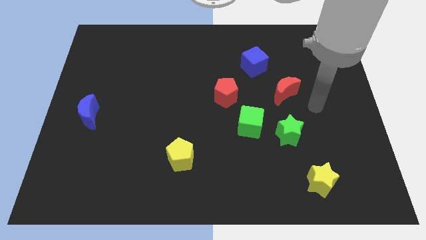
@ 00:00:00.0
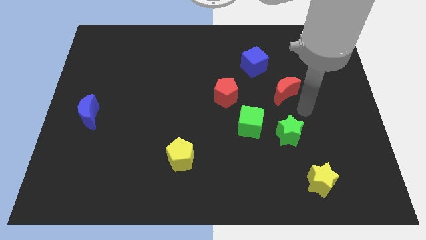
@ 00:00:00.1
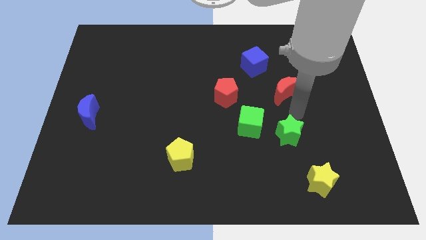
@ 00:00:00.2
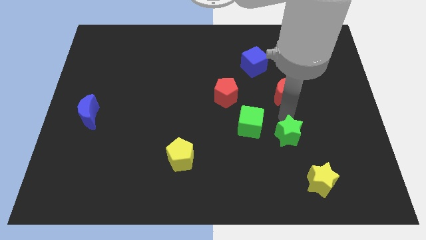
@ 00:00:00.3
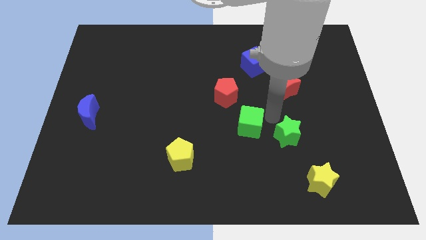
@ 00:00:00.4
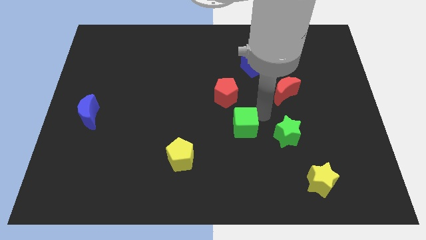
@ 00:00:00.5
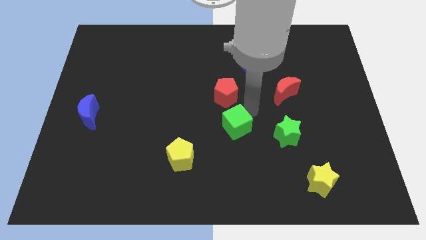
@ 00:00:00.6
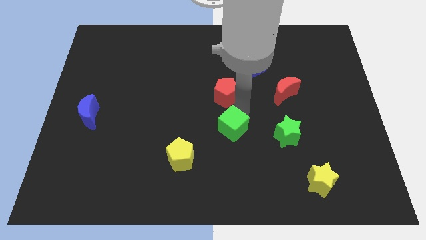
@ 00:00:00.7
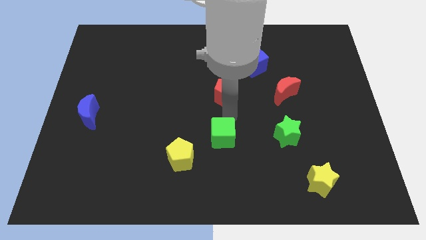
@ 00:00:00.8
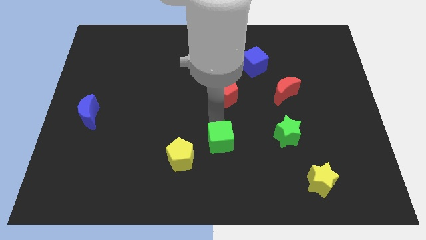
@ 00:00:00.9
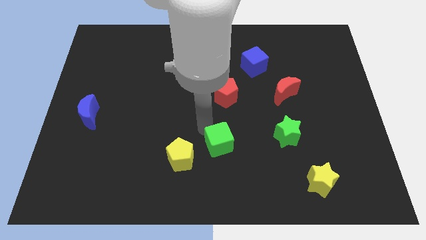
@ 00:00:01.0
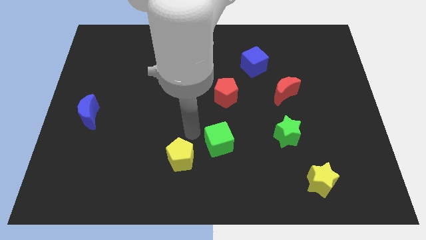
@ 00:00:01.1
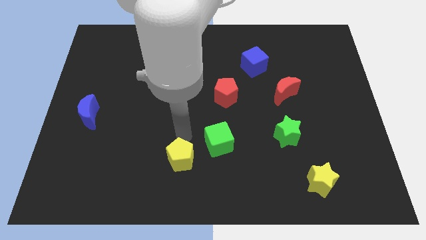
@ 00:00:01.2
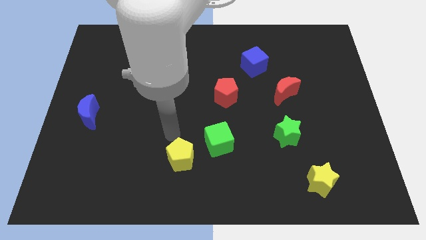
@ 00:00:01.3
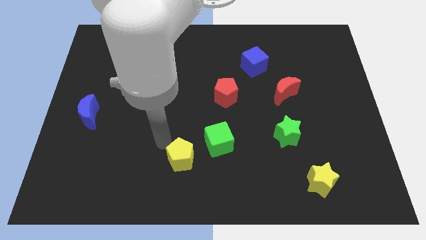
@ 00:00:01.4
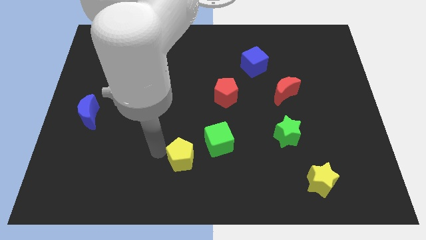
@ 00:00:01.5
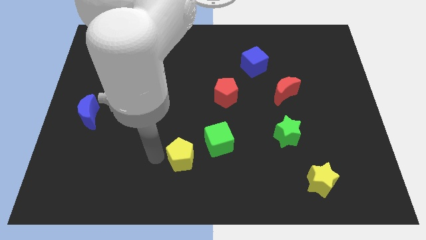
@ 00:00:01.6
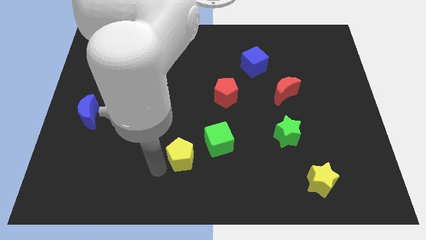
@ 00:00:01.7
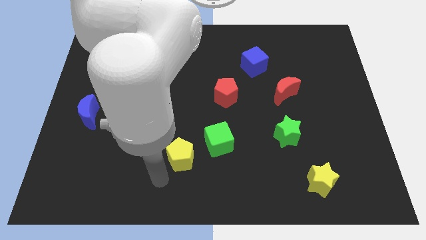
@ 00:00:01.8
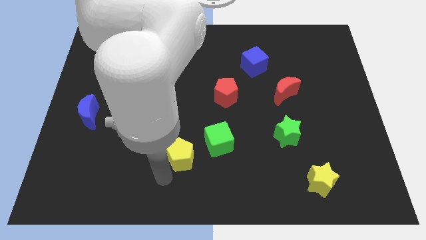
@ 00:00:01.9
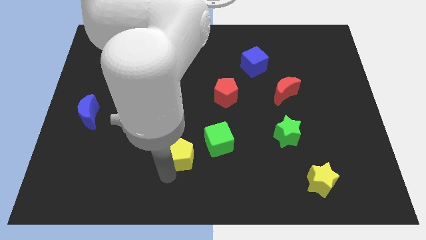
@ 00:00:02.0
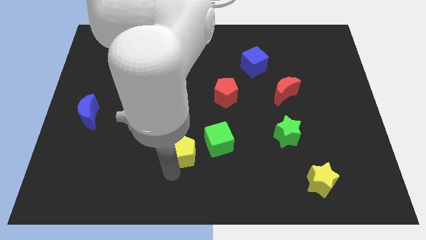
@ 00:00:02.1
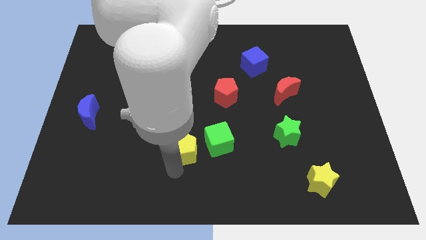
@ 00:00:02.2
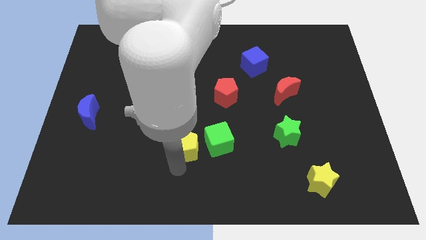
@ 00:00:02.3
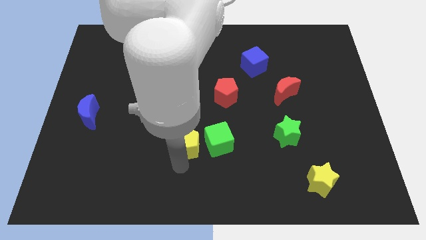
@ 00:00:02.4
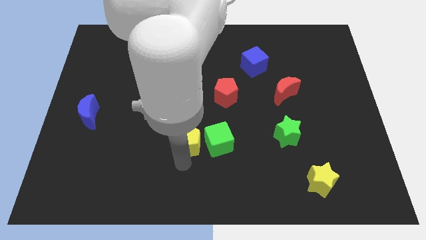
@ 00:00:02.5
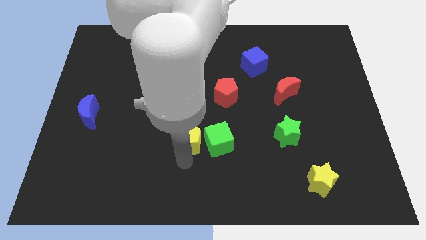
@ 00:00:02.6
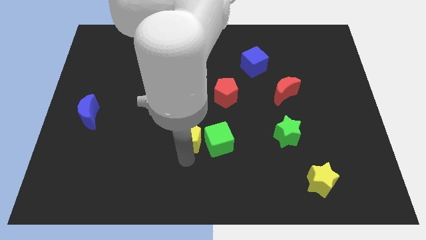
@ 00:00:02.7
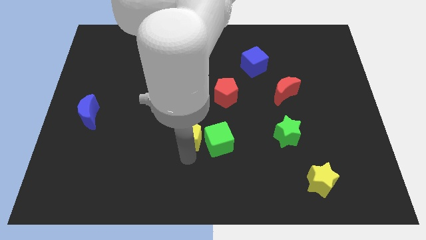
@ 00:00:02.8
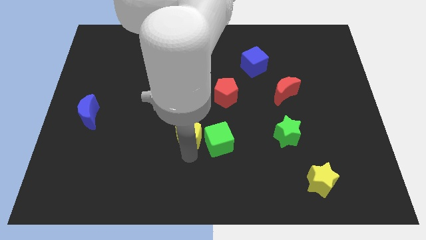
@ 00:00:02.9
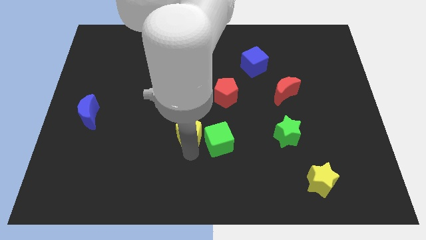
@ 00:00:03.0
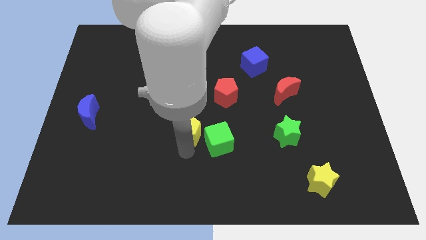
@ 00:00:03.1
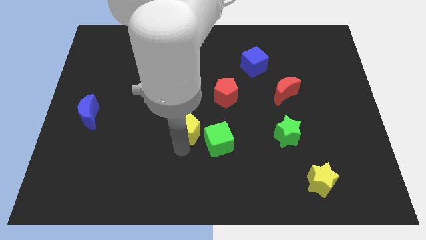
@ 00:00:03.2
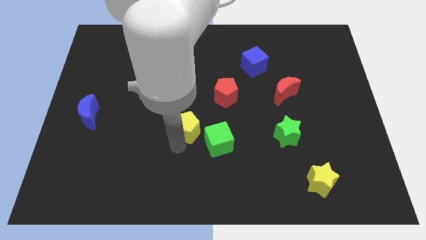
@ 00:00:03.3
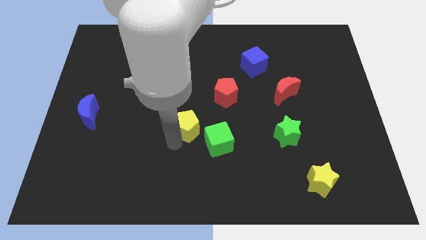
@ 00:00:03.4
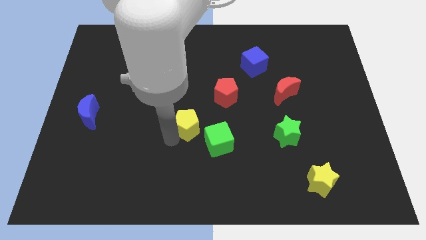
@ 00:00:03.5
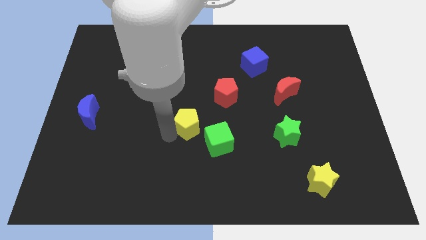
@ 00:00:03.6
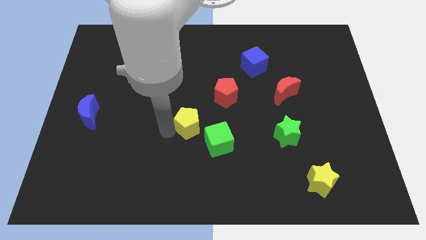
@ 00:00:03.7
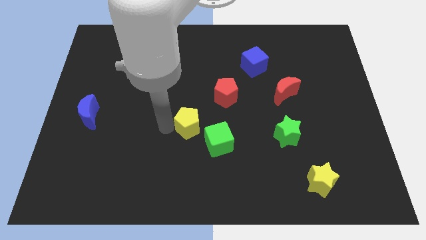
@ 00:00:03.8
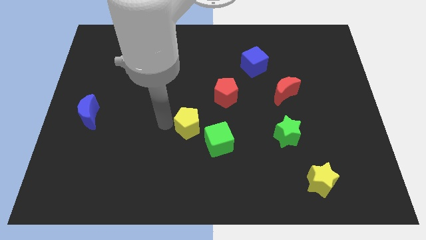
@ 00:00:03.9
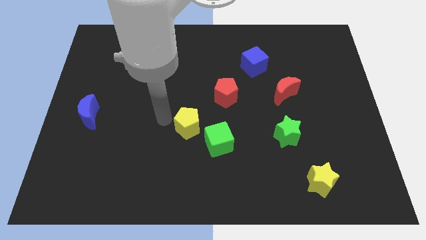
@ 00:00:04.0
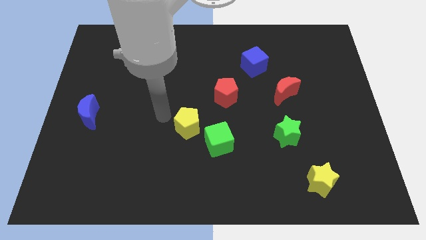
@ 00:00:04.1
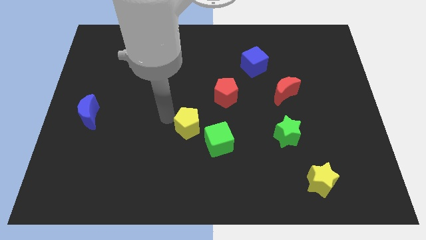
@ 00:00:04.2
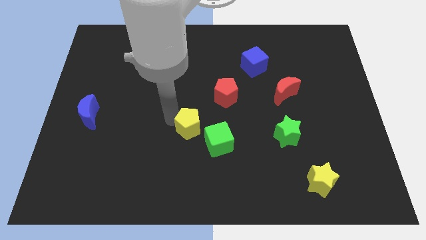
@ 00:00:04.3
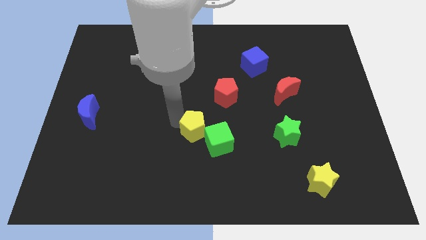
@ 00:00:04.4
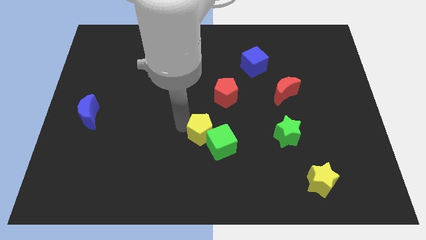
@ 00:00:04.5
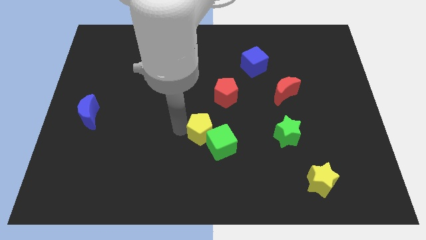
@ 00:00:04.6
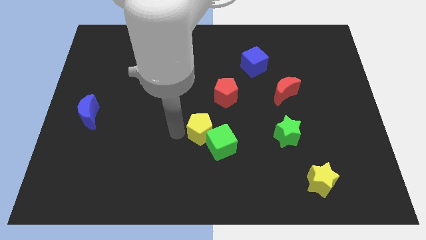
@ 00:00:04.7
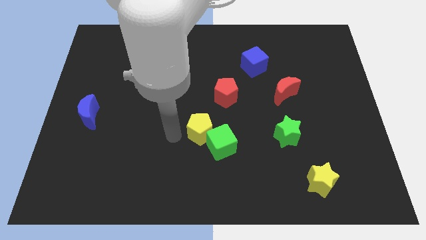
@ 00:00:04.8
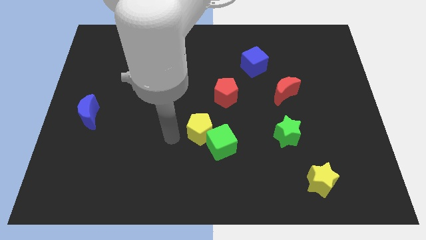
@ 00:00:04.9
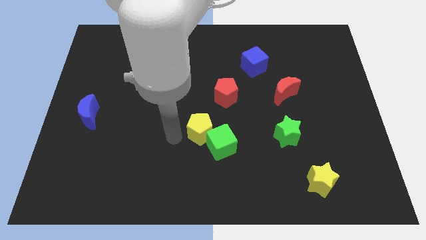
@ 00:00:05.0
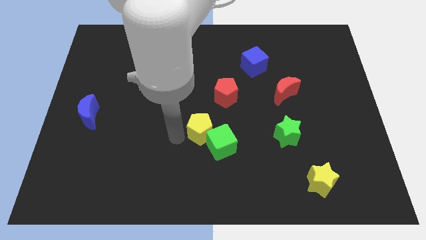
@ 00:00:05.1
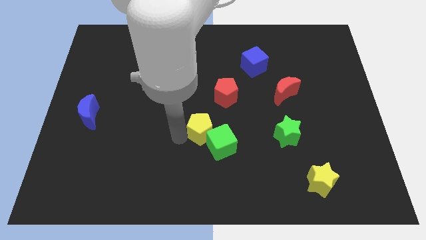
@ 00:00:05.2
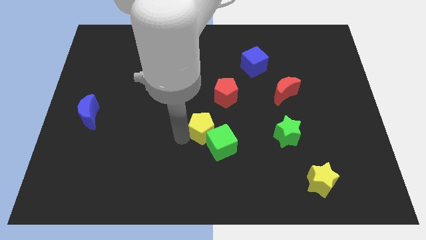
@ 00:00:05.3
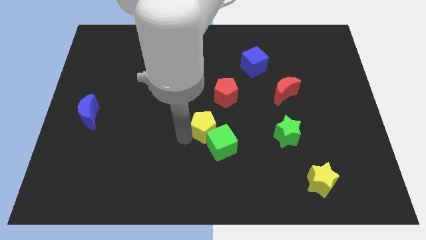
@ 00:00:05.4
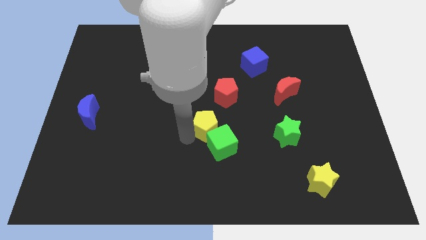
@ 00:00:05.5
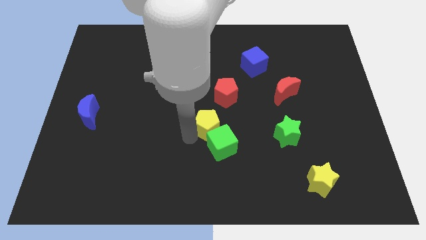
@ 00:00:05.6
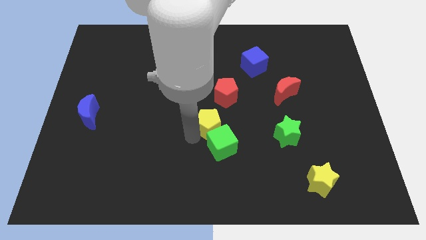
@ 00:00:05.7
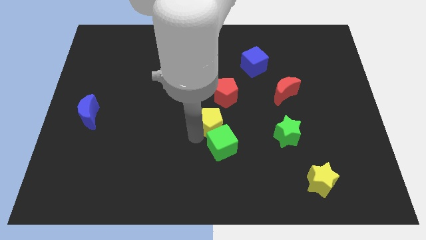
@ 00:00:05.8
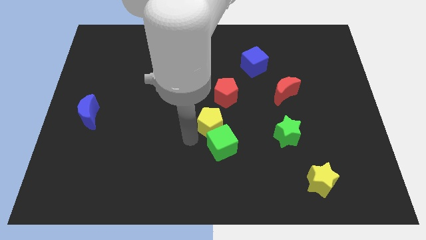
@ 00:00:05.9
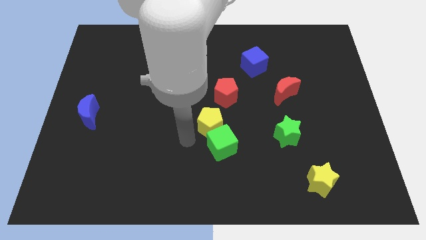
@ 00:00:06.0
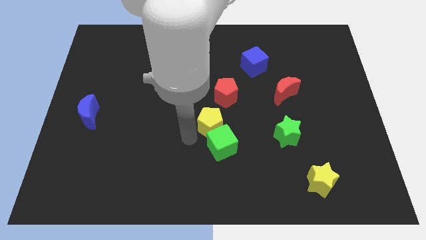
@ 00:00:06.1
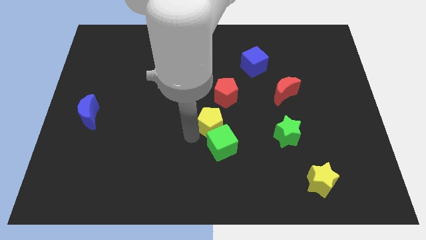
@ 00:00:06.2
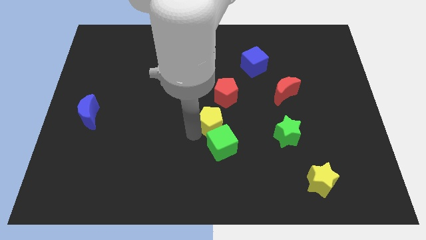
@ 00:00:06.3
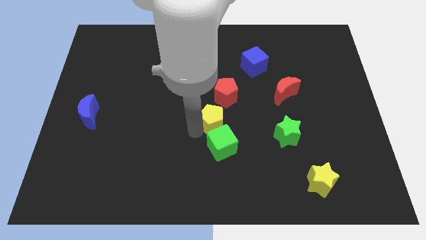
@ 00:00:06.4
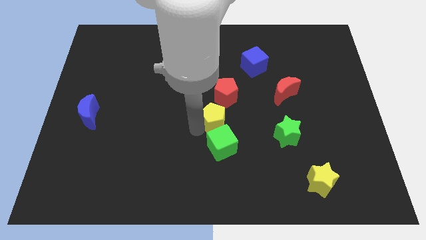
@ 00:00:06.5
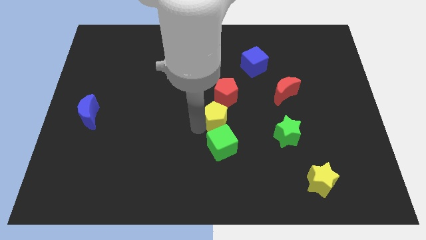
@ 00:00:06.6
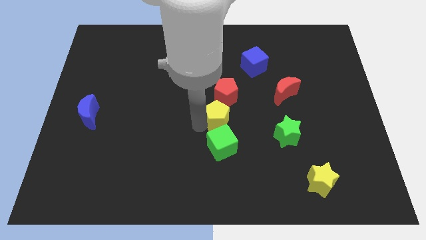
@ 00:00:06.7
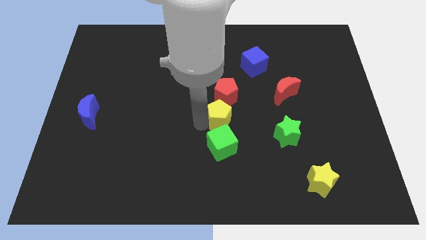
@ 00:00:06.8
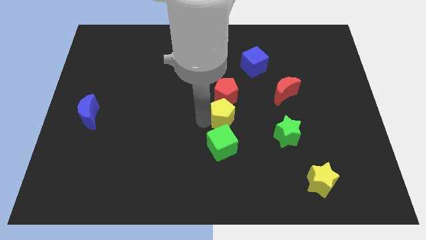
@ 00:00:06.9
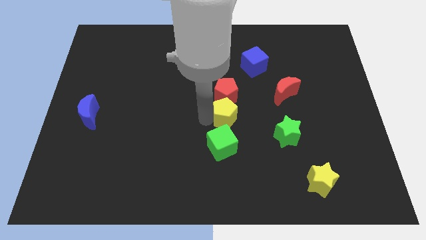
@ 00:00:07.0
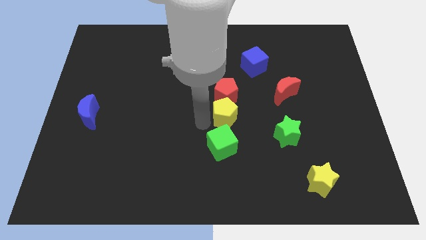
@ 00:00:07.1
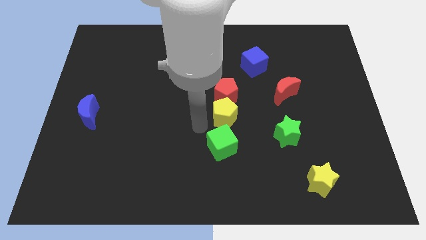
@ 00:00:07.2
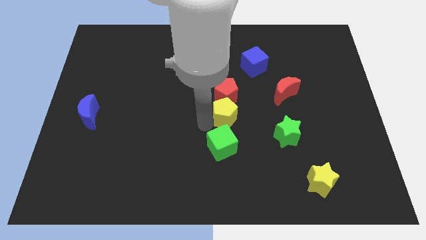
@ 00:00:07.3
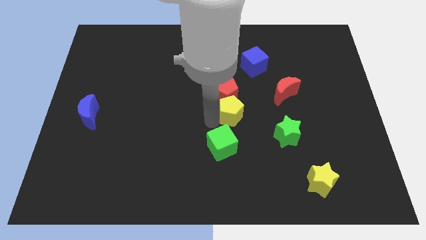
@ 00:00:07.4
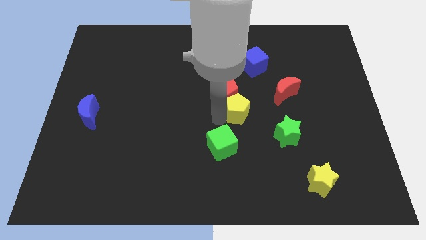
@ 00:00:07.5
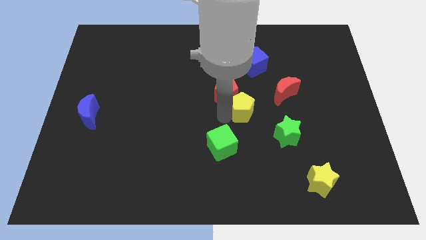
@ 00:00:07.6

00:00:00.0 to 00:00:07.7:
put the yellow pentagon diagonally down and to the left of the red moon
